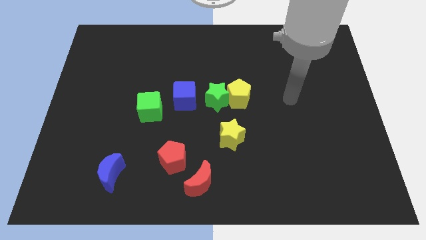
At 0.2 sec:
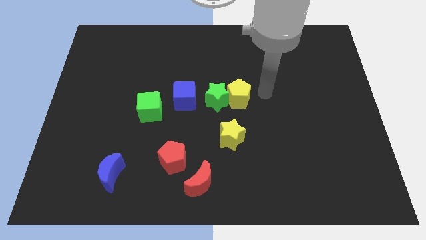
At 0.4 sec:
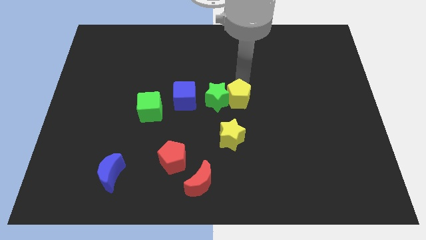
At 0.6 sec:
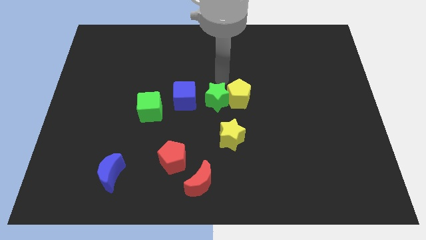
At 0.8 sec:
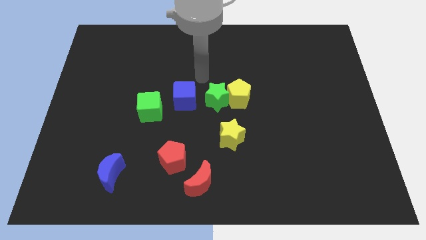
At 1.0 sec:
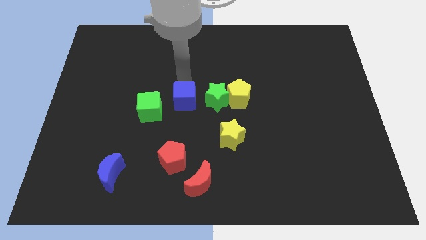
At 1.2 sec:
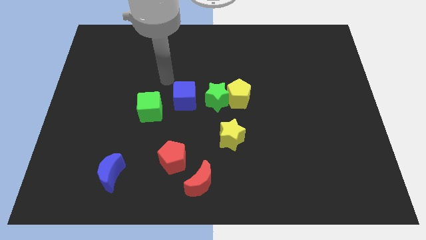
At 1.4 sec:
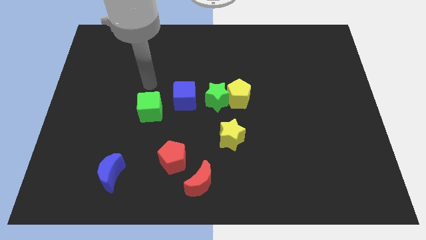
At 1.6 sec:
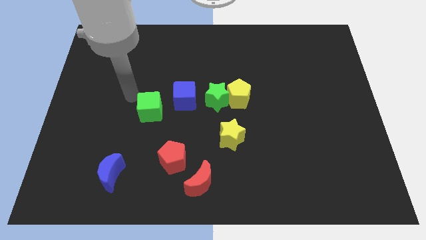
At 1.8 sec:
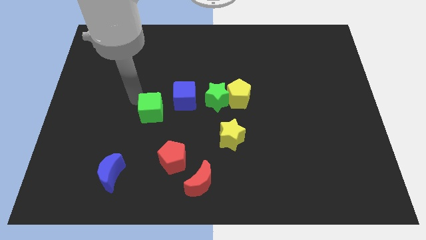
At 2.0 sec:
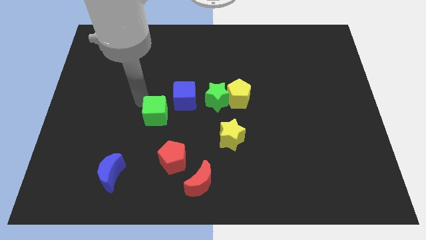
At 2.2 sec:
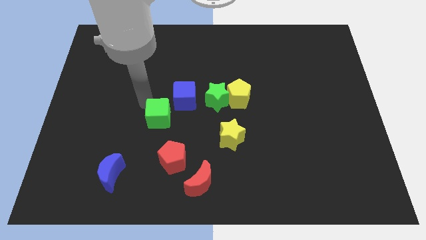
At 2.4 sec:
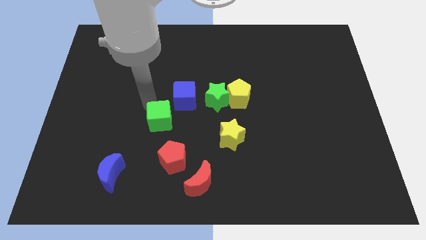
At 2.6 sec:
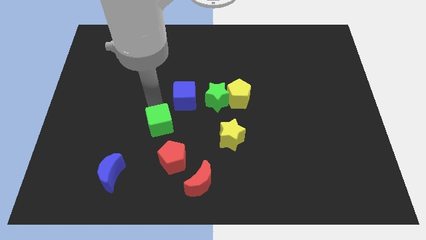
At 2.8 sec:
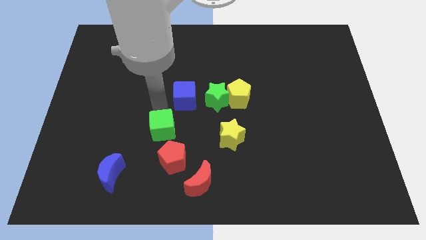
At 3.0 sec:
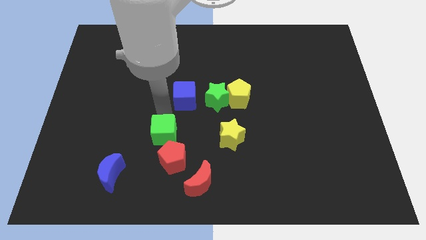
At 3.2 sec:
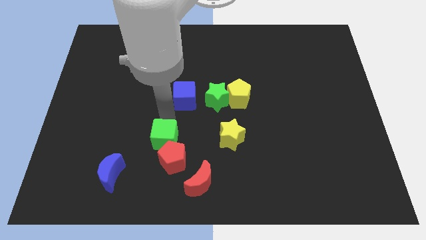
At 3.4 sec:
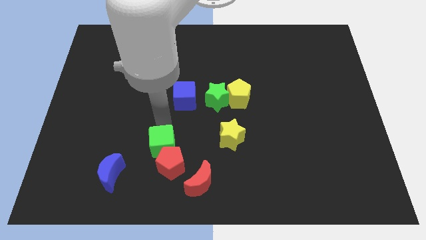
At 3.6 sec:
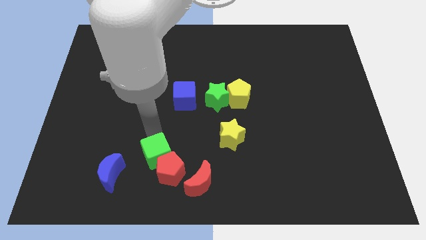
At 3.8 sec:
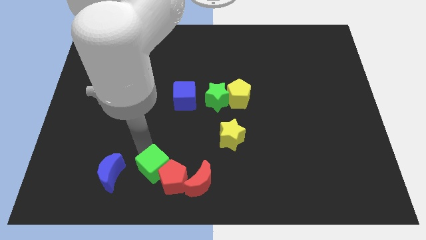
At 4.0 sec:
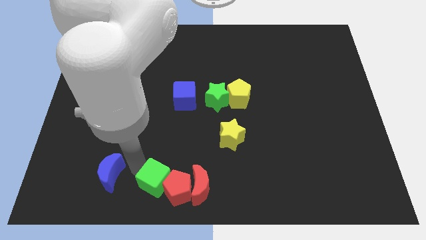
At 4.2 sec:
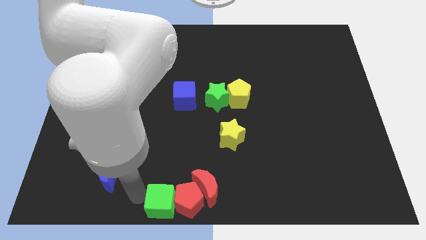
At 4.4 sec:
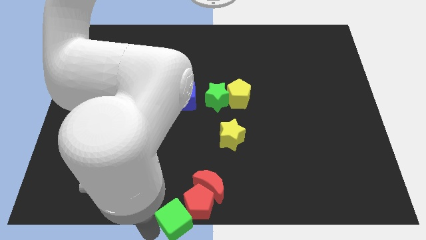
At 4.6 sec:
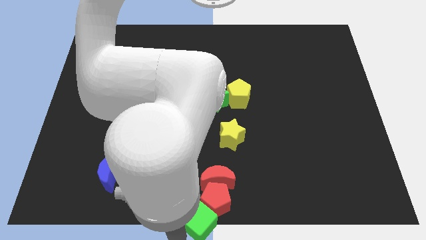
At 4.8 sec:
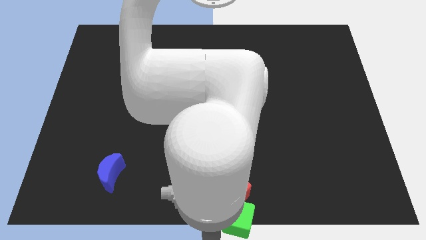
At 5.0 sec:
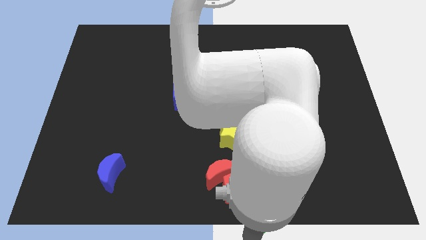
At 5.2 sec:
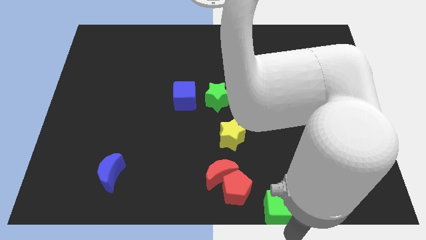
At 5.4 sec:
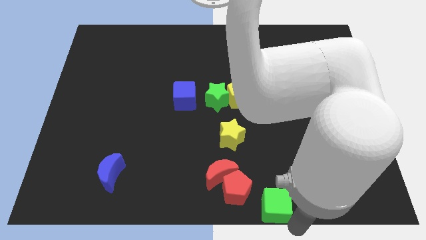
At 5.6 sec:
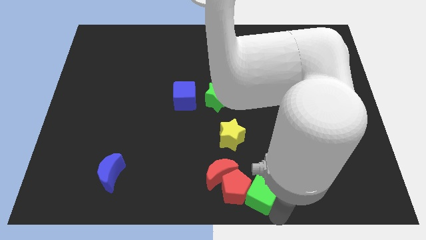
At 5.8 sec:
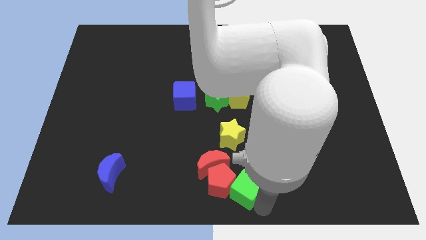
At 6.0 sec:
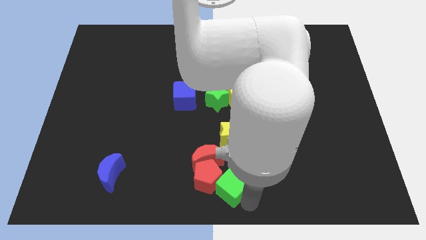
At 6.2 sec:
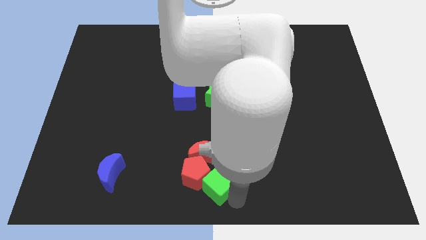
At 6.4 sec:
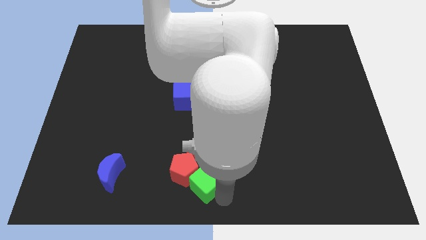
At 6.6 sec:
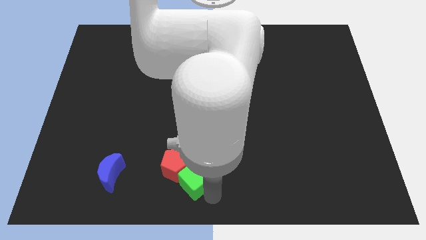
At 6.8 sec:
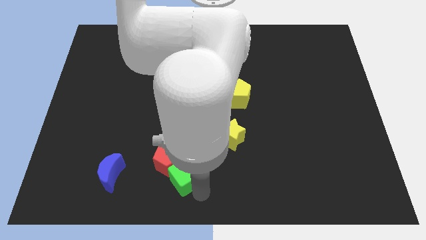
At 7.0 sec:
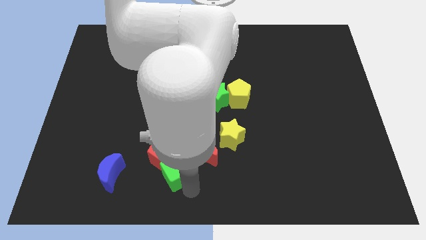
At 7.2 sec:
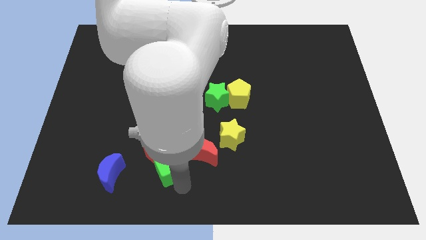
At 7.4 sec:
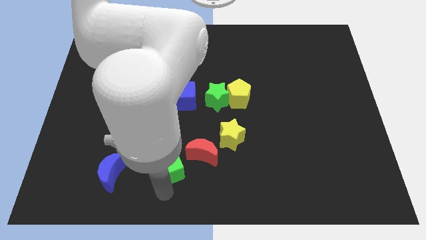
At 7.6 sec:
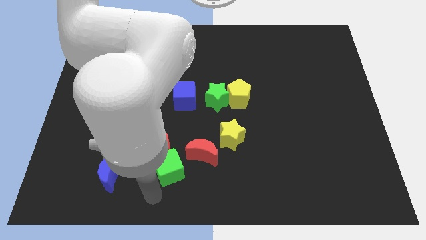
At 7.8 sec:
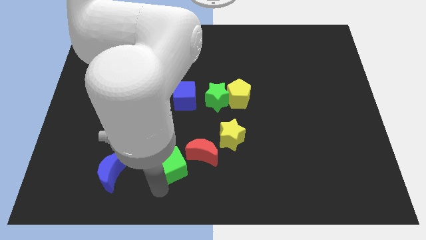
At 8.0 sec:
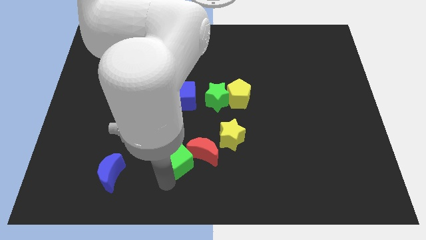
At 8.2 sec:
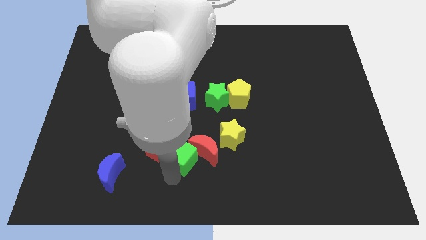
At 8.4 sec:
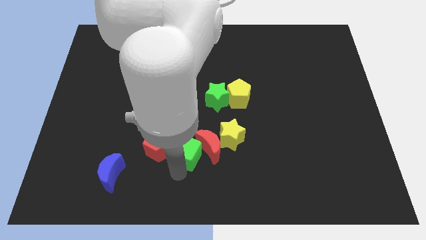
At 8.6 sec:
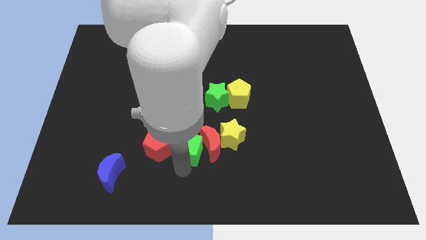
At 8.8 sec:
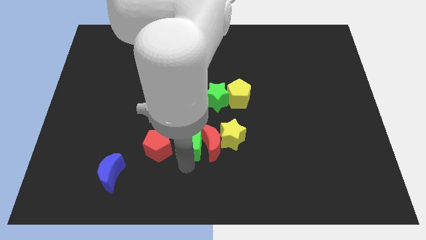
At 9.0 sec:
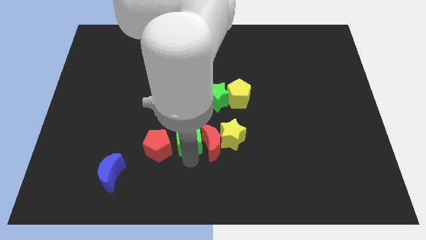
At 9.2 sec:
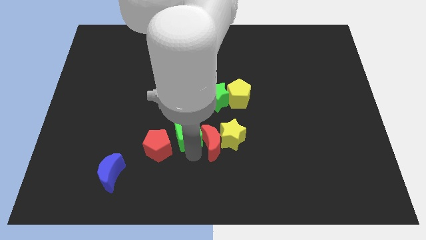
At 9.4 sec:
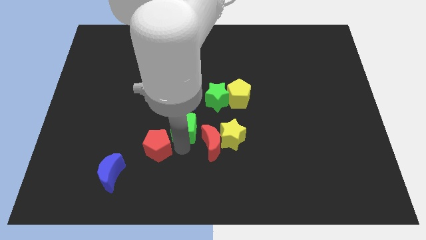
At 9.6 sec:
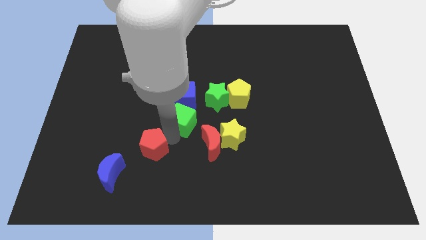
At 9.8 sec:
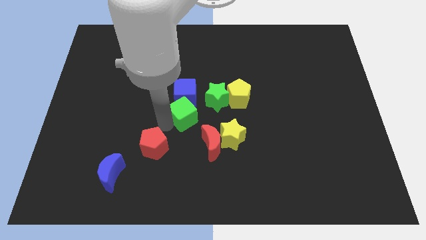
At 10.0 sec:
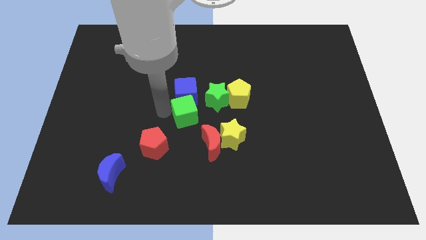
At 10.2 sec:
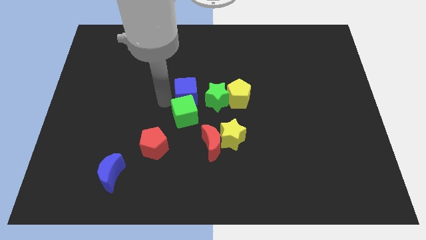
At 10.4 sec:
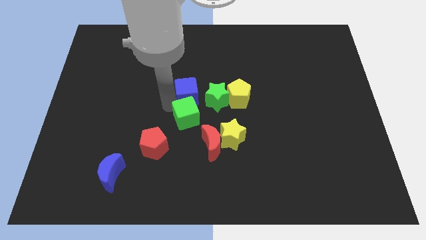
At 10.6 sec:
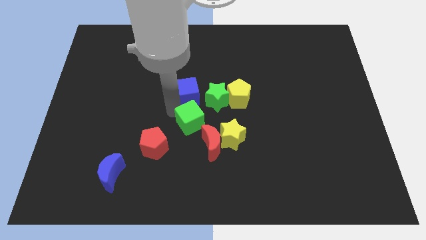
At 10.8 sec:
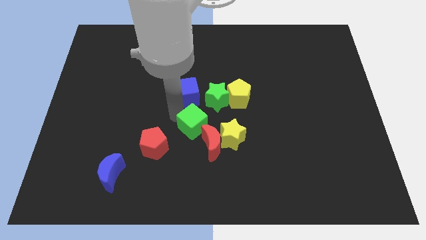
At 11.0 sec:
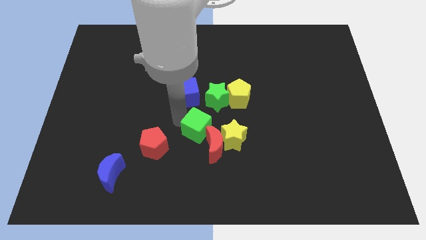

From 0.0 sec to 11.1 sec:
slide the green cube to the bottom of the green star
